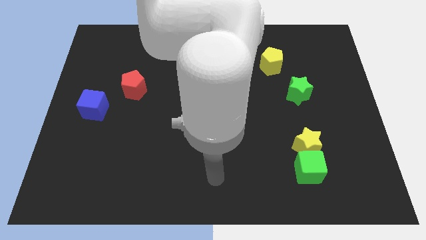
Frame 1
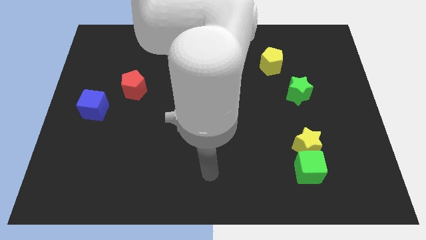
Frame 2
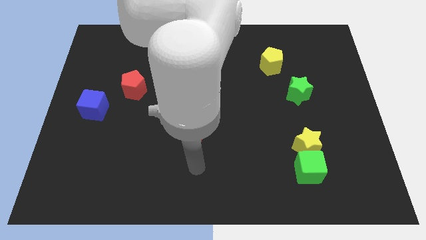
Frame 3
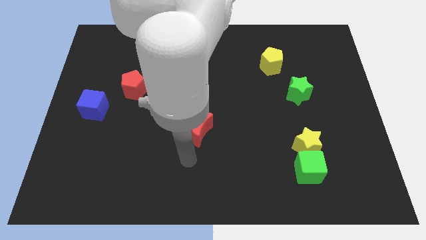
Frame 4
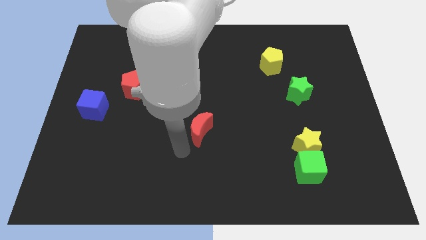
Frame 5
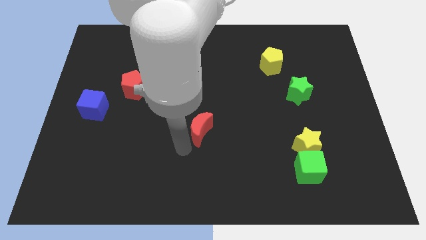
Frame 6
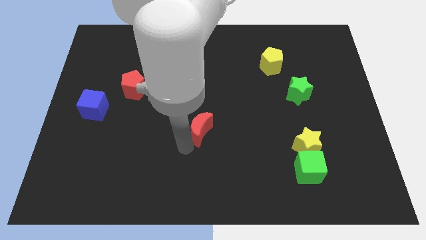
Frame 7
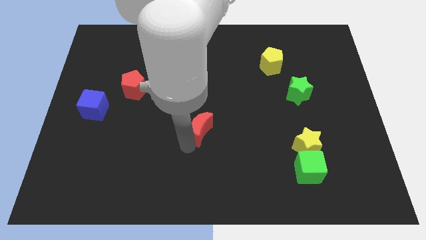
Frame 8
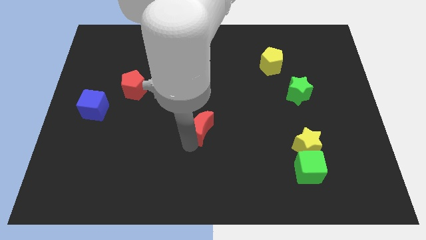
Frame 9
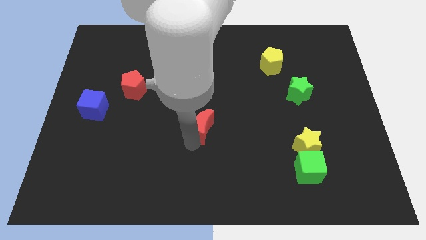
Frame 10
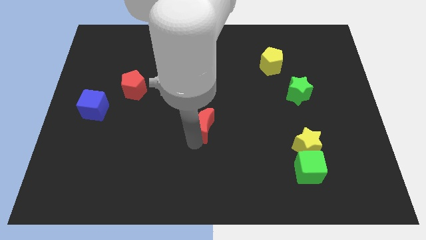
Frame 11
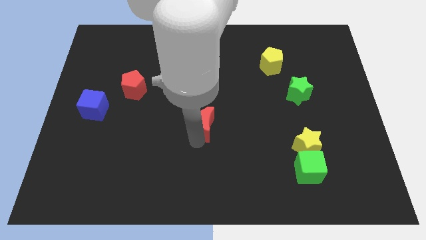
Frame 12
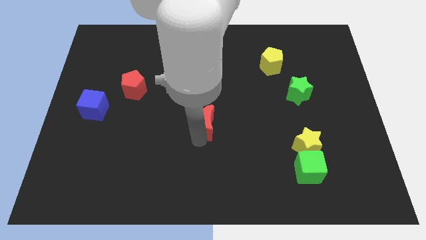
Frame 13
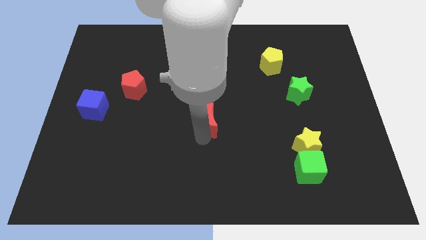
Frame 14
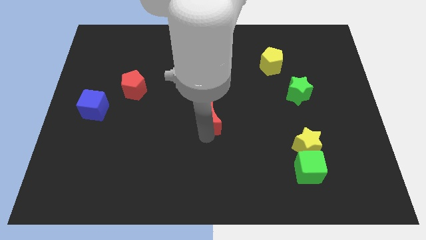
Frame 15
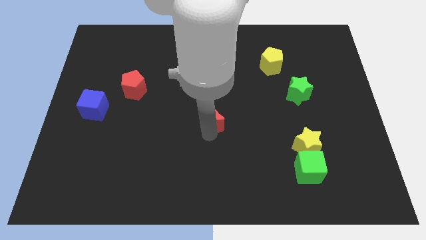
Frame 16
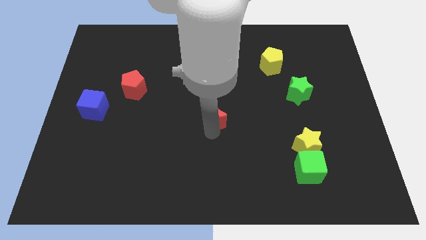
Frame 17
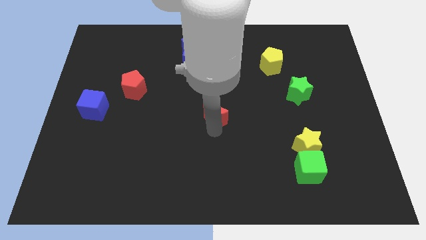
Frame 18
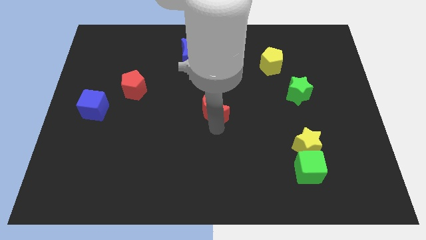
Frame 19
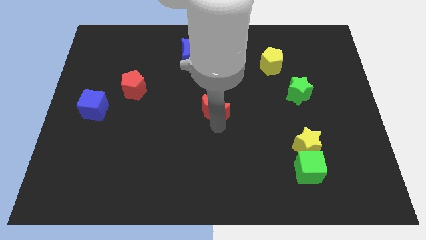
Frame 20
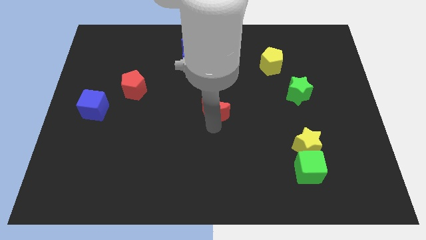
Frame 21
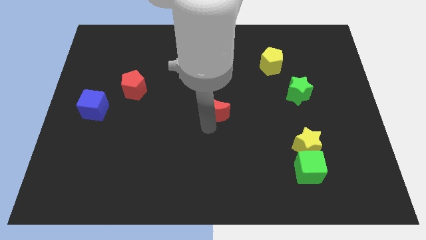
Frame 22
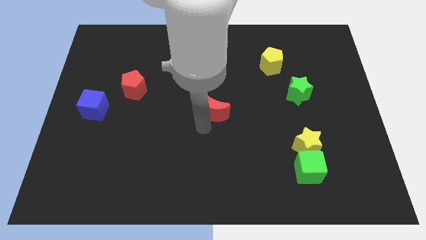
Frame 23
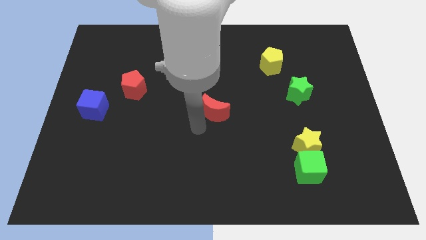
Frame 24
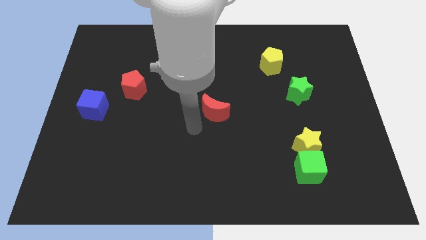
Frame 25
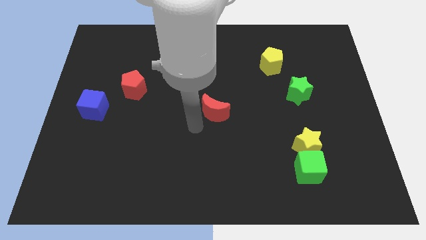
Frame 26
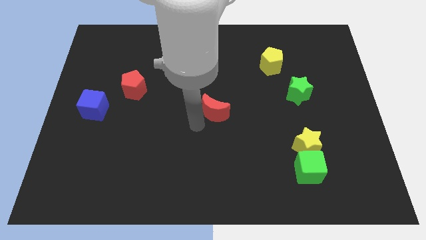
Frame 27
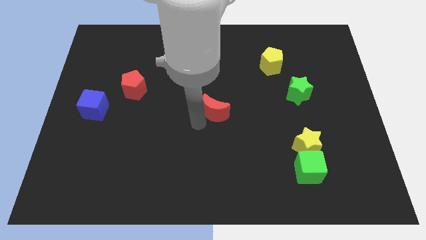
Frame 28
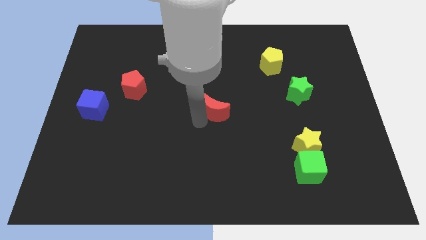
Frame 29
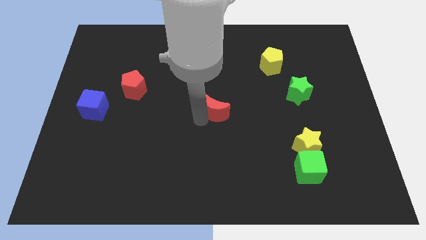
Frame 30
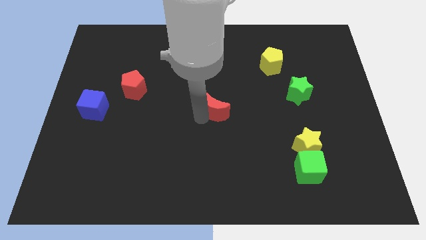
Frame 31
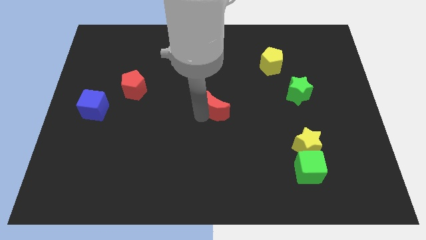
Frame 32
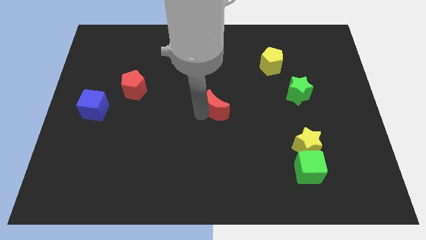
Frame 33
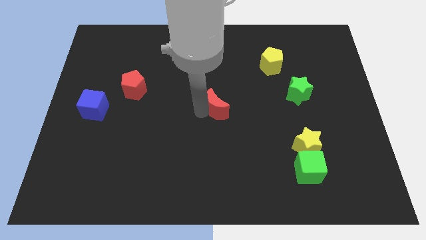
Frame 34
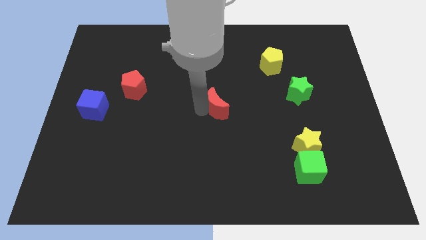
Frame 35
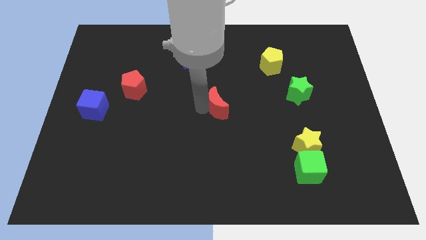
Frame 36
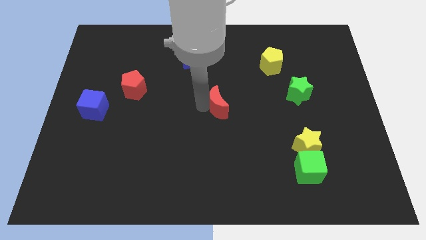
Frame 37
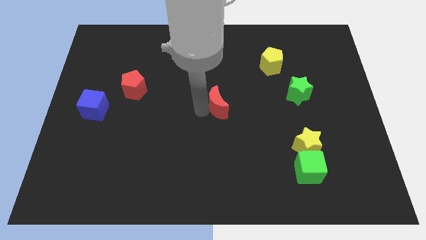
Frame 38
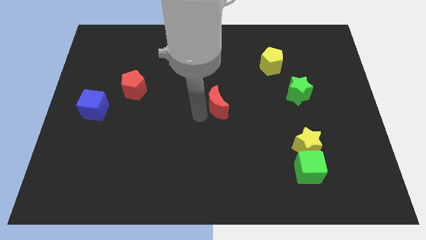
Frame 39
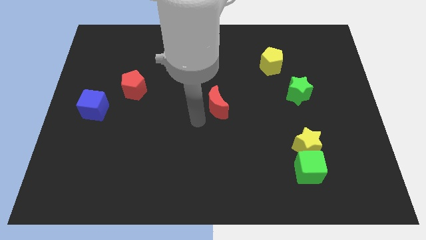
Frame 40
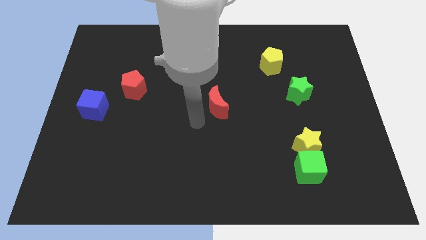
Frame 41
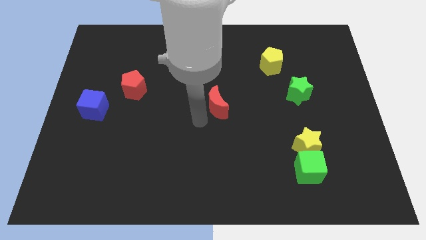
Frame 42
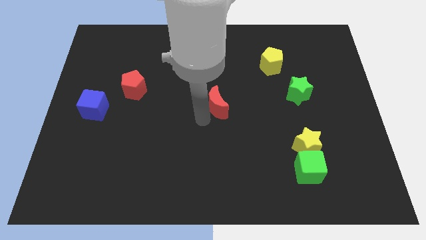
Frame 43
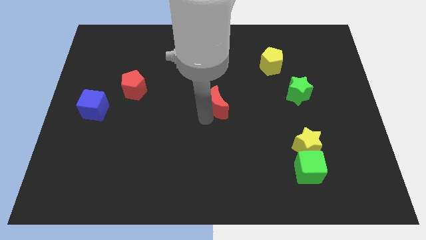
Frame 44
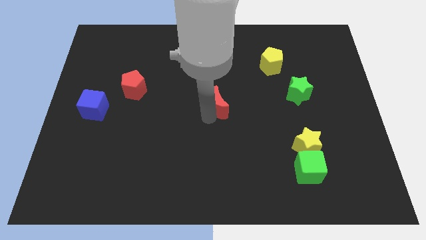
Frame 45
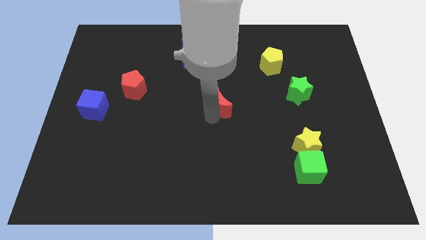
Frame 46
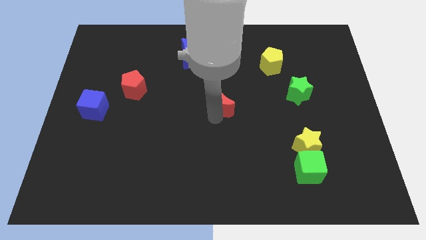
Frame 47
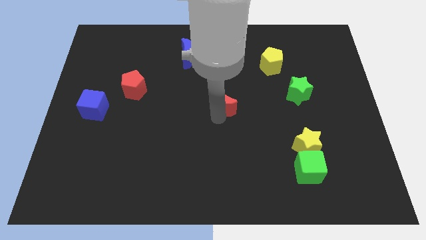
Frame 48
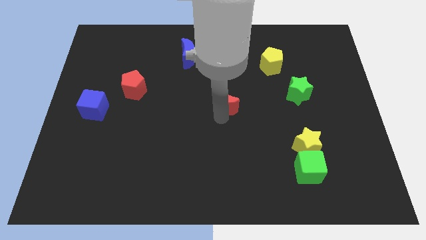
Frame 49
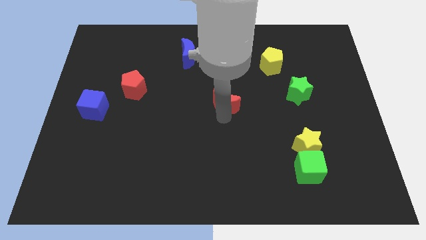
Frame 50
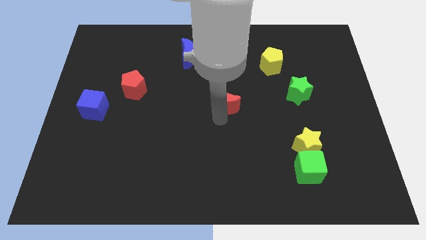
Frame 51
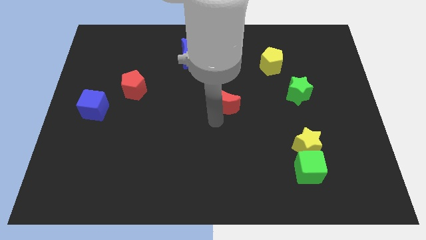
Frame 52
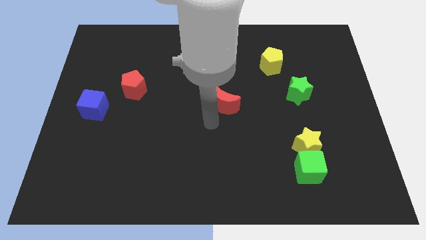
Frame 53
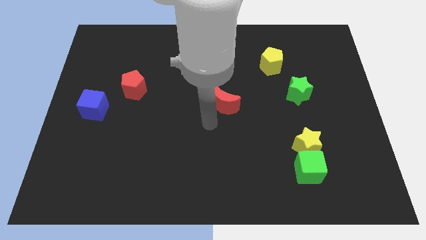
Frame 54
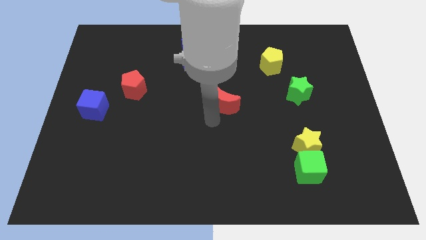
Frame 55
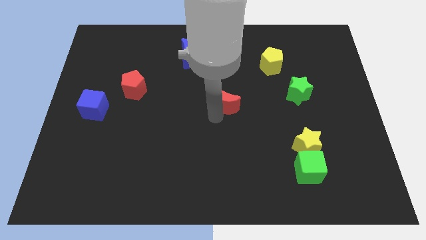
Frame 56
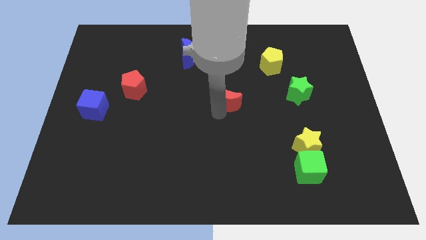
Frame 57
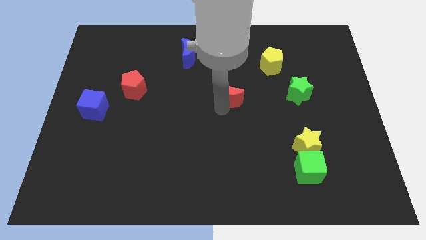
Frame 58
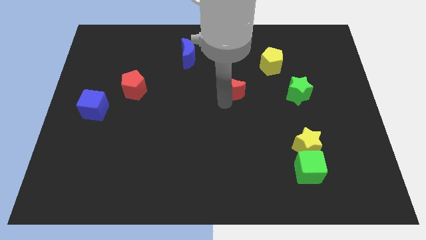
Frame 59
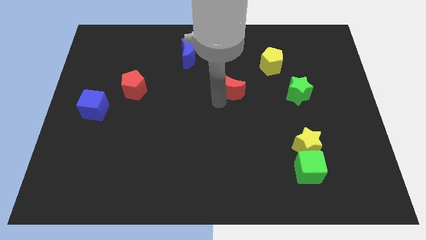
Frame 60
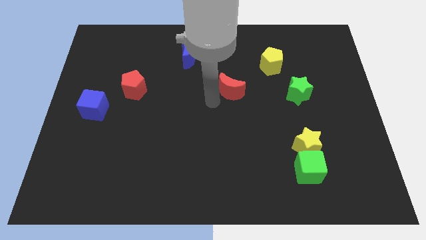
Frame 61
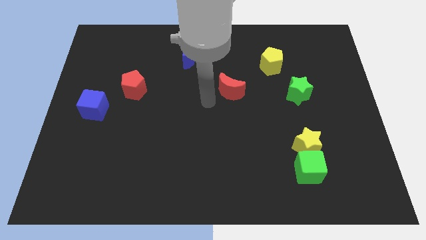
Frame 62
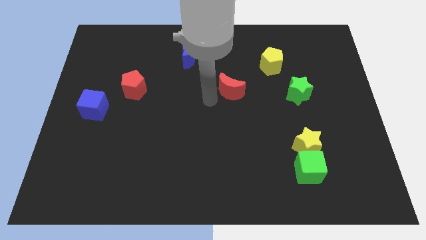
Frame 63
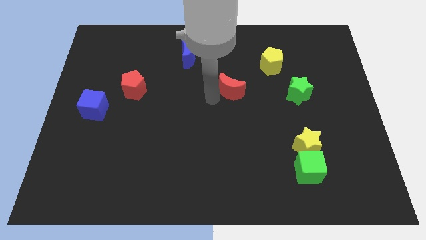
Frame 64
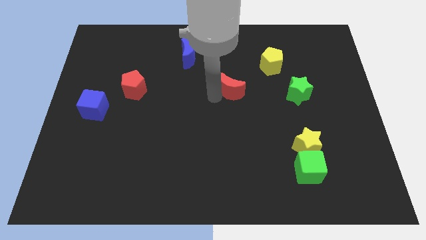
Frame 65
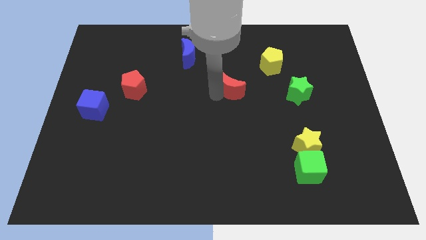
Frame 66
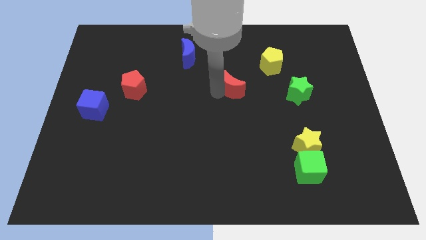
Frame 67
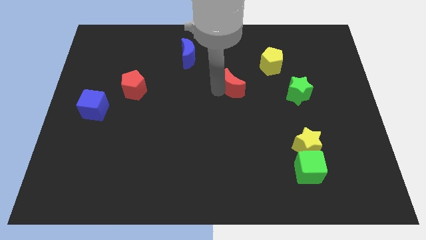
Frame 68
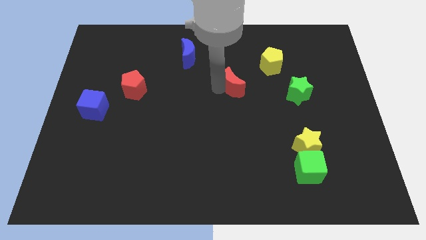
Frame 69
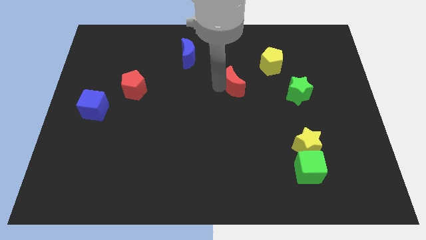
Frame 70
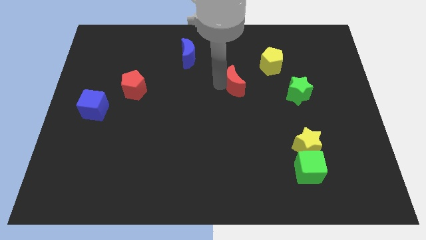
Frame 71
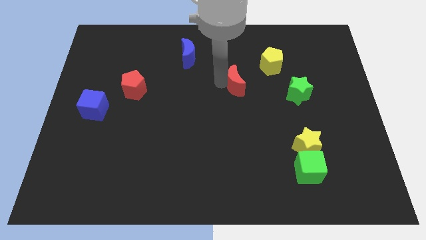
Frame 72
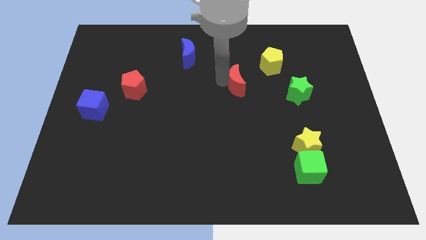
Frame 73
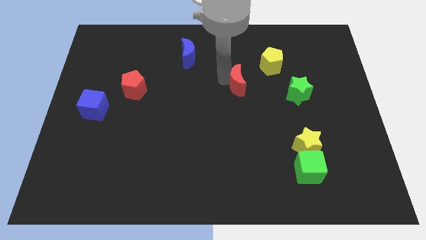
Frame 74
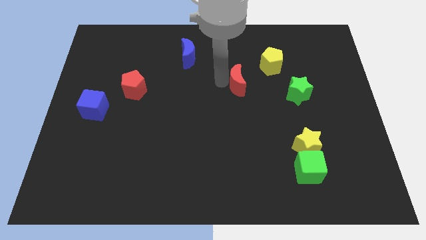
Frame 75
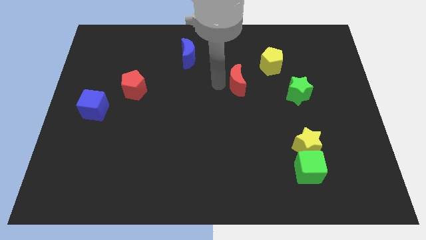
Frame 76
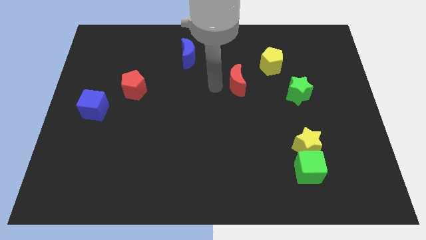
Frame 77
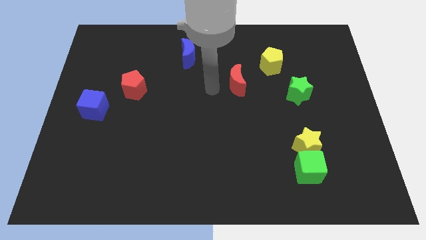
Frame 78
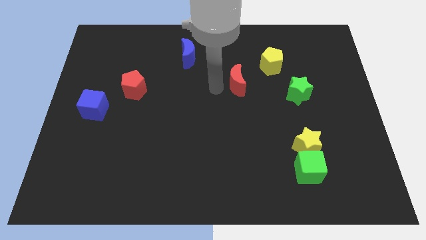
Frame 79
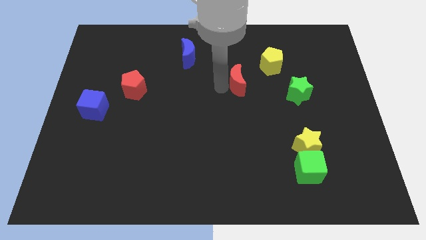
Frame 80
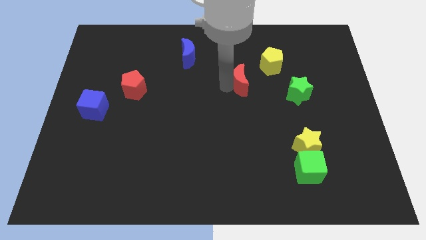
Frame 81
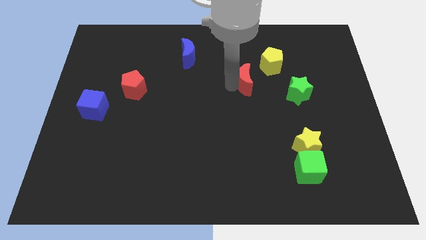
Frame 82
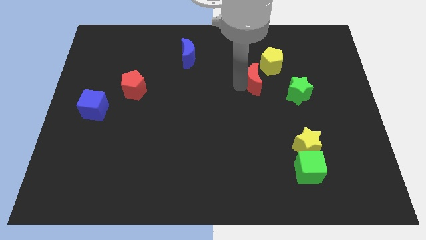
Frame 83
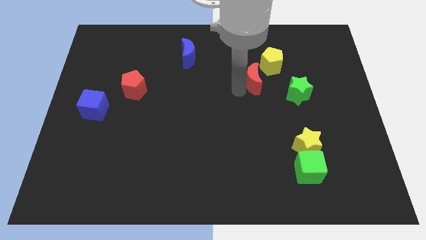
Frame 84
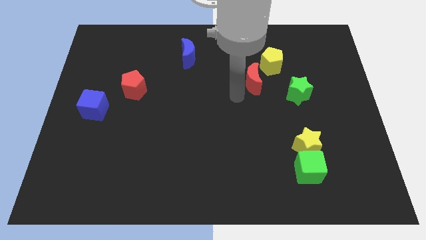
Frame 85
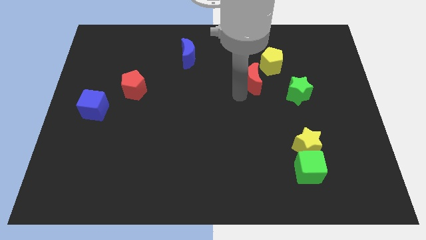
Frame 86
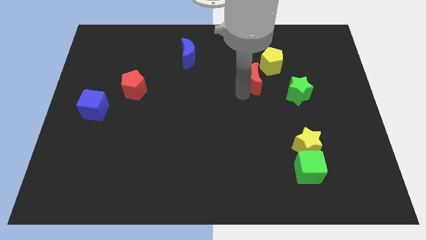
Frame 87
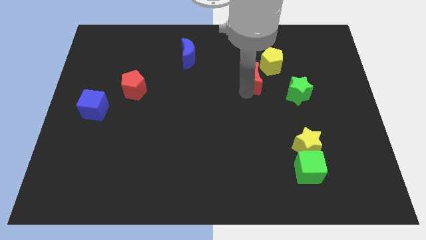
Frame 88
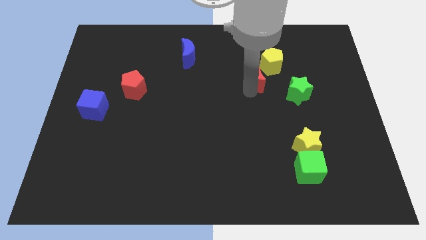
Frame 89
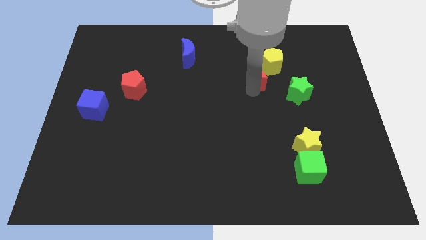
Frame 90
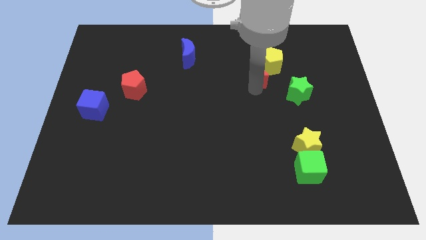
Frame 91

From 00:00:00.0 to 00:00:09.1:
push the red moon close to the yellow pentagon
